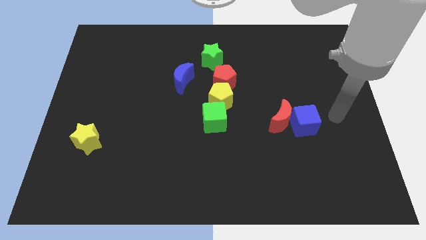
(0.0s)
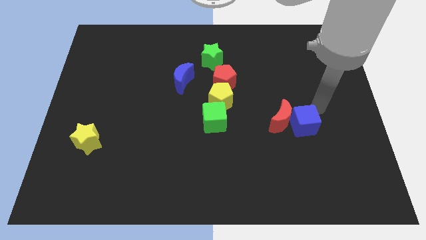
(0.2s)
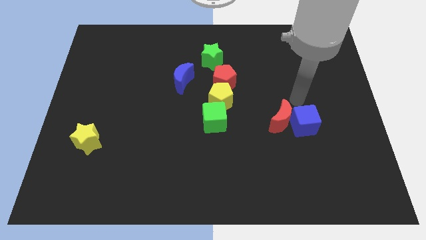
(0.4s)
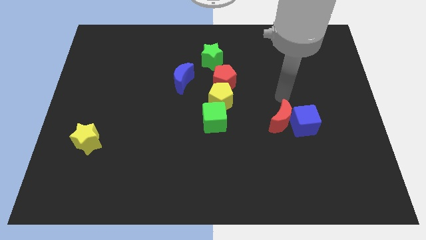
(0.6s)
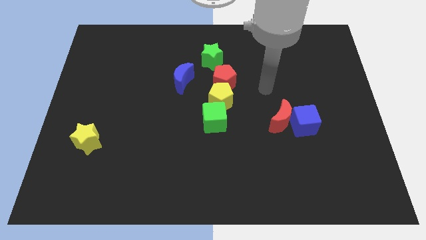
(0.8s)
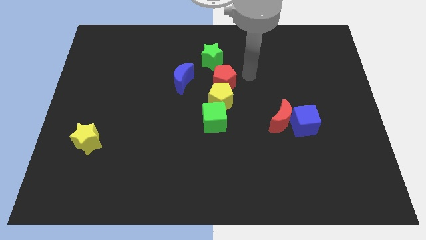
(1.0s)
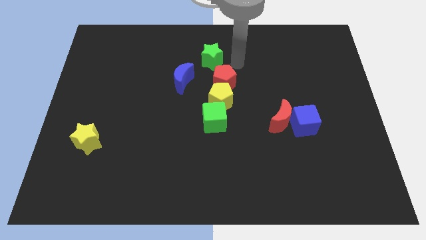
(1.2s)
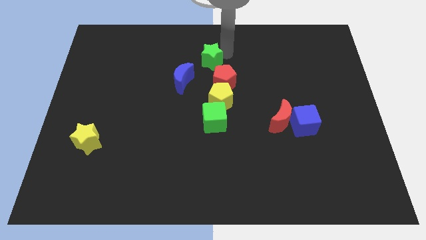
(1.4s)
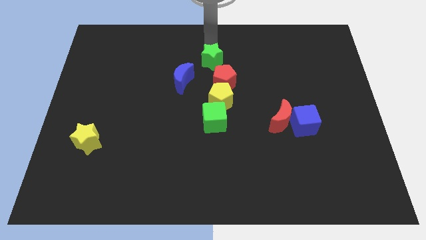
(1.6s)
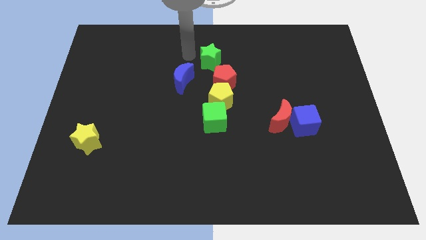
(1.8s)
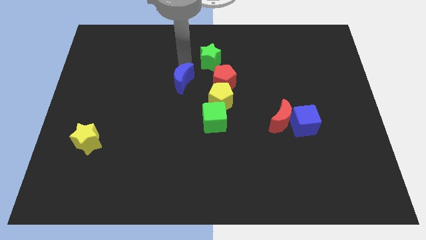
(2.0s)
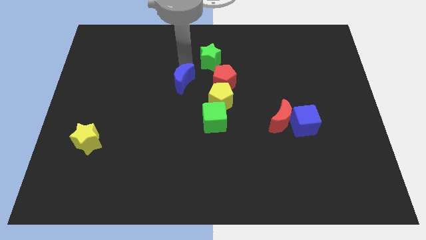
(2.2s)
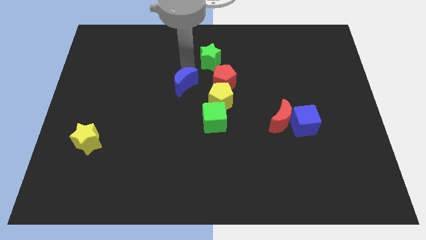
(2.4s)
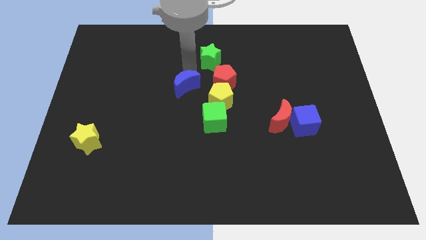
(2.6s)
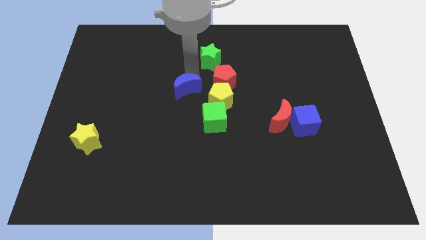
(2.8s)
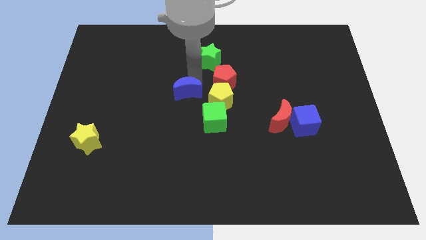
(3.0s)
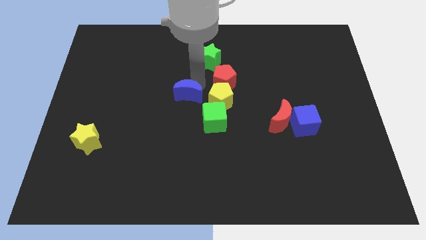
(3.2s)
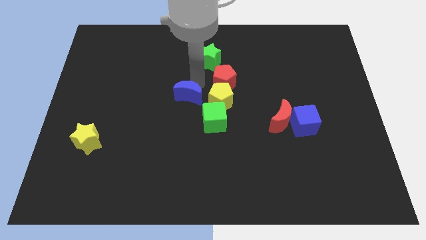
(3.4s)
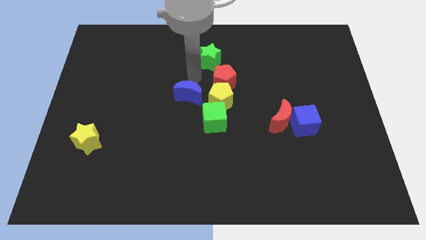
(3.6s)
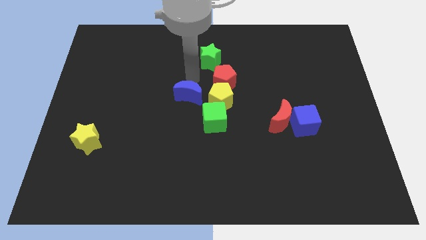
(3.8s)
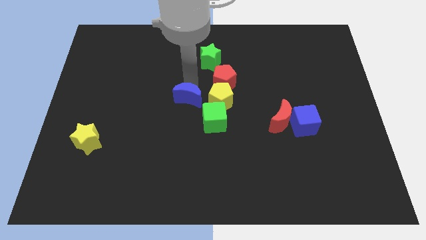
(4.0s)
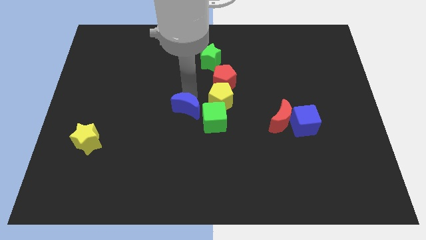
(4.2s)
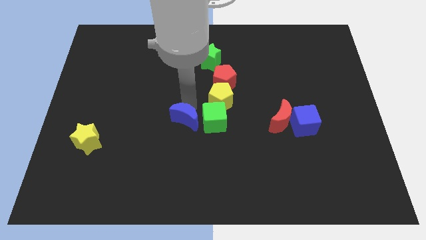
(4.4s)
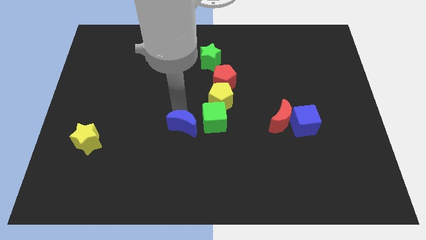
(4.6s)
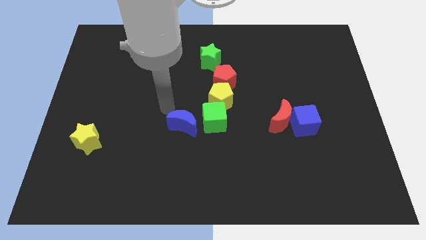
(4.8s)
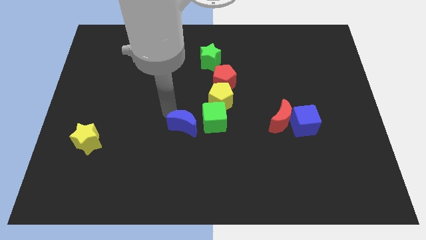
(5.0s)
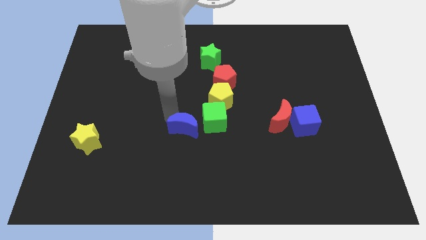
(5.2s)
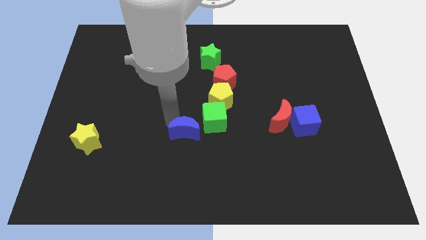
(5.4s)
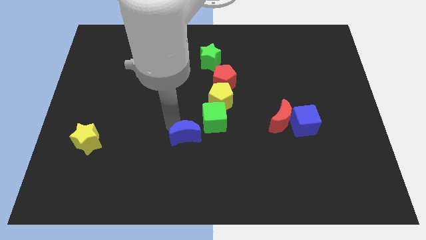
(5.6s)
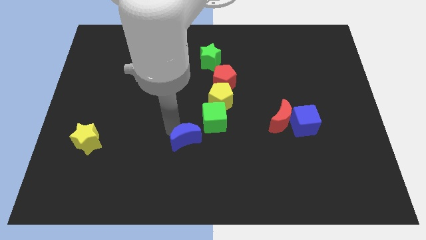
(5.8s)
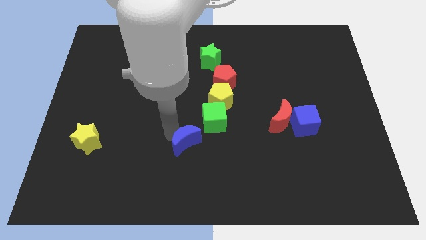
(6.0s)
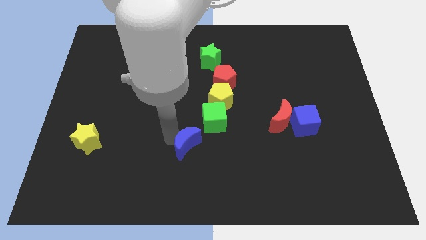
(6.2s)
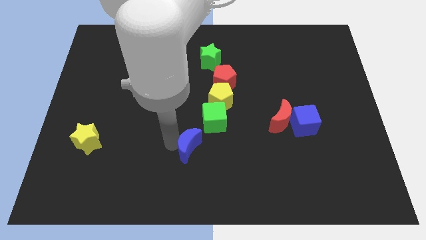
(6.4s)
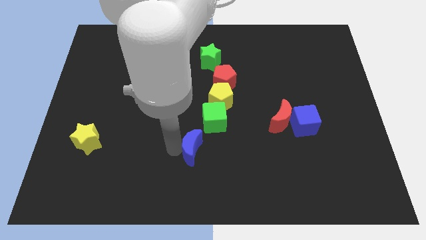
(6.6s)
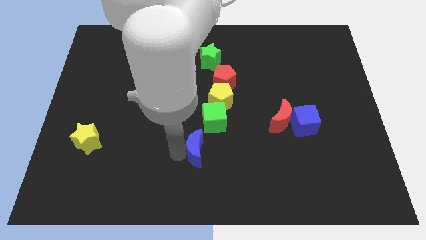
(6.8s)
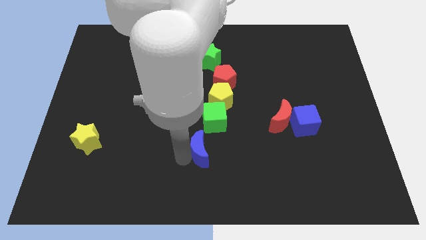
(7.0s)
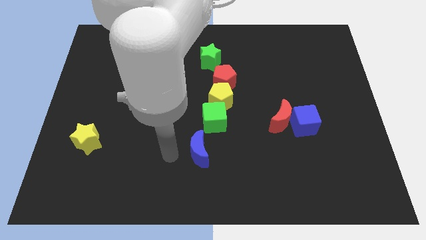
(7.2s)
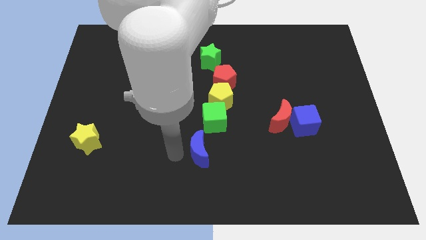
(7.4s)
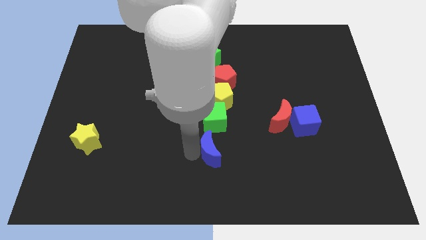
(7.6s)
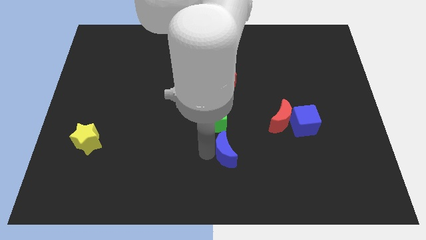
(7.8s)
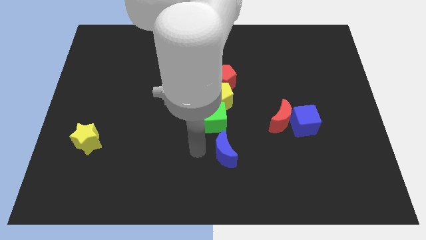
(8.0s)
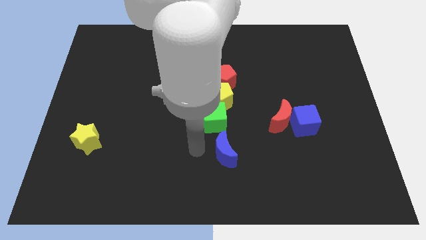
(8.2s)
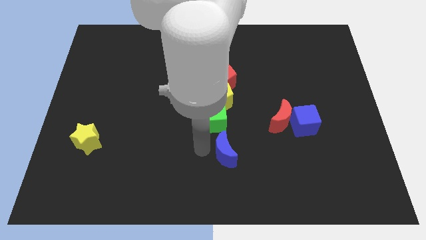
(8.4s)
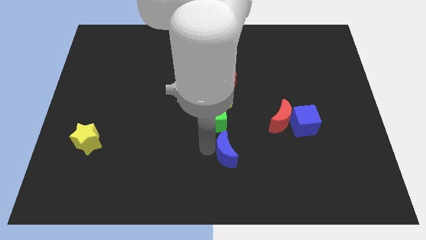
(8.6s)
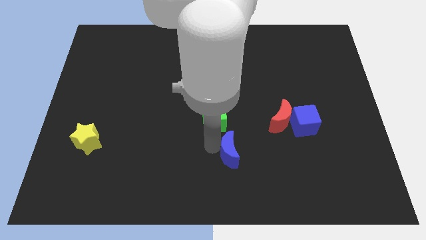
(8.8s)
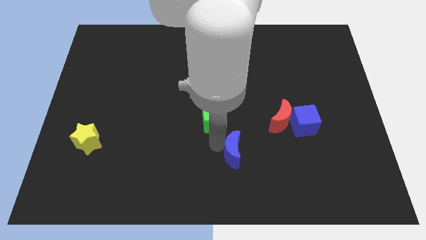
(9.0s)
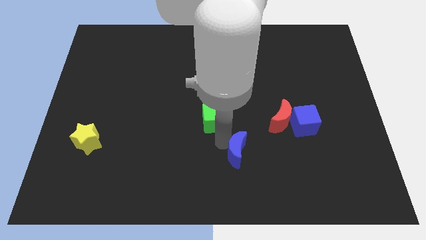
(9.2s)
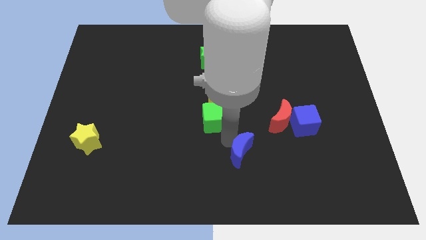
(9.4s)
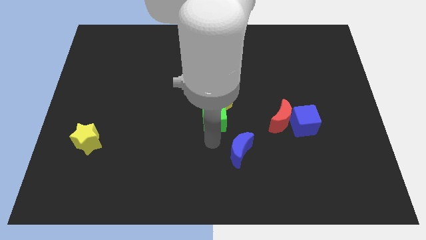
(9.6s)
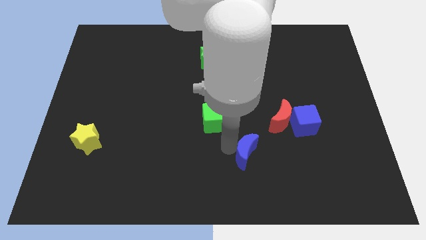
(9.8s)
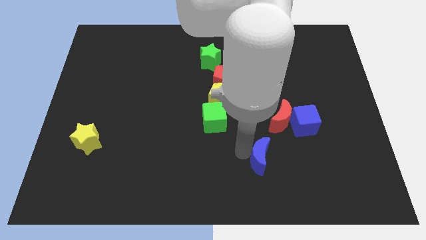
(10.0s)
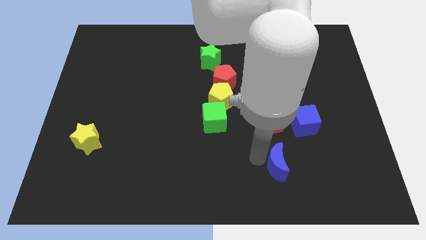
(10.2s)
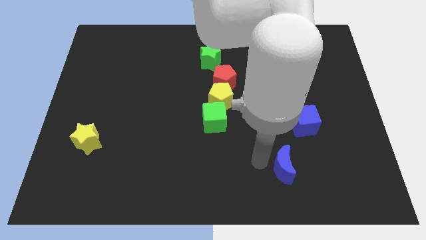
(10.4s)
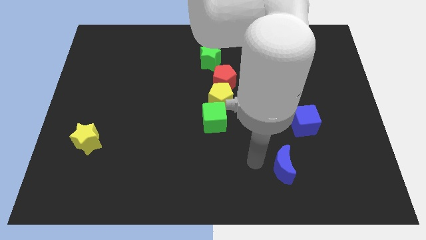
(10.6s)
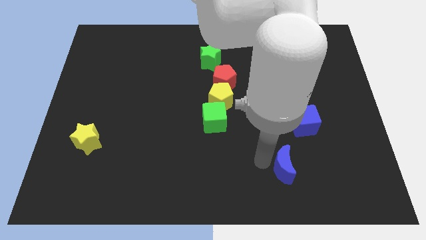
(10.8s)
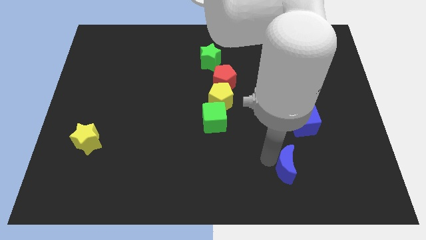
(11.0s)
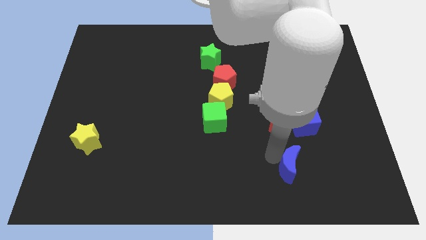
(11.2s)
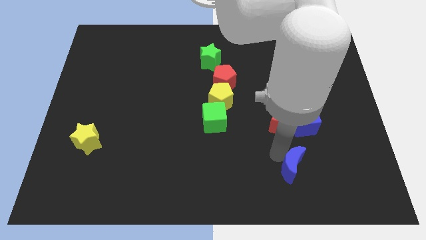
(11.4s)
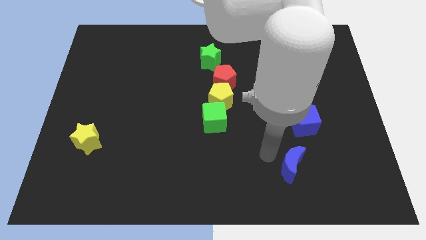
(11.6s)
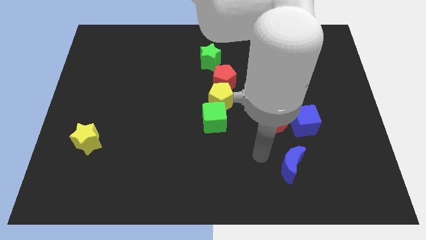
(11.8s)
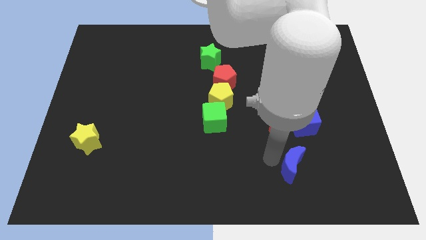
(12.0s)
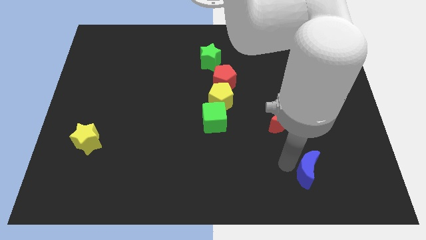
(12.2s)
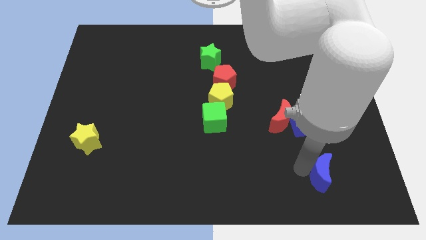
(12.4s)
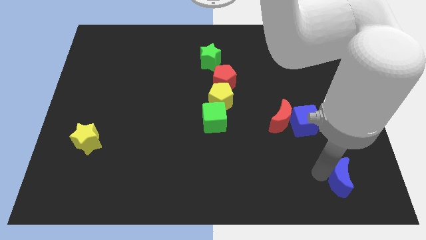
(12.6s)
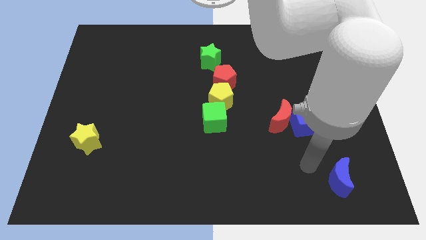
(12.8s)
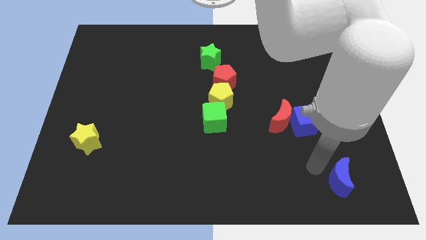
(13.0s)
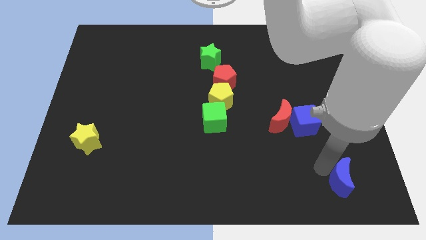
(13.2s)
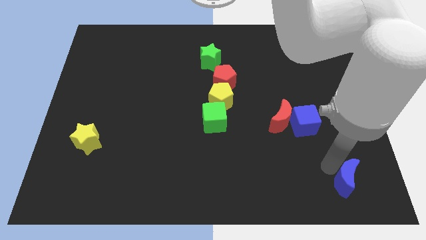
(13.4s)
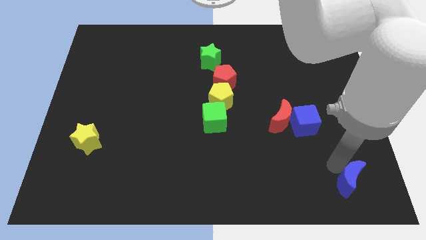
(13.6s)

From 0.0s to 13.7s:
move the blue moon to the lower right corner
